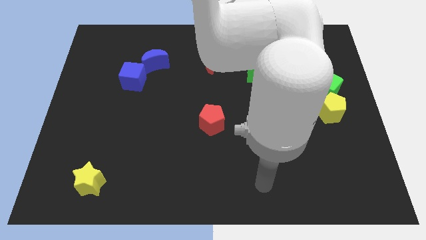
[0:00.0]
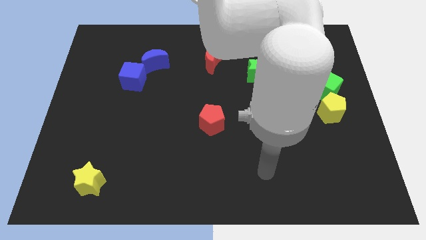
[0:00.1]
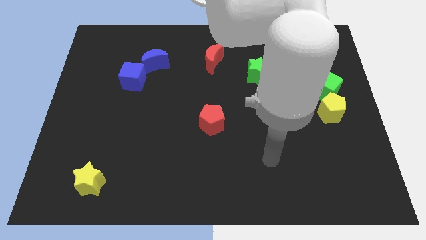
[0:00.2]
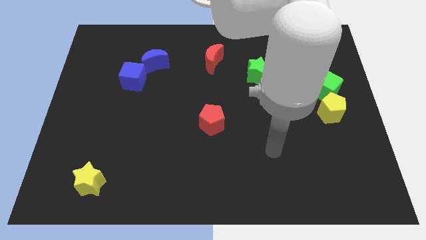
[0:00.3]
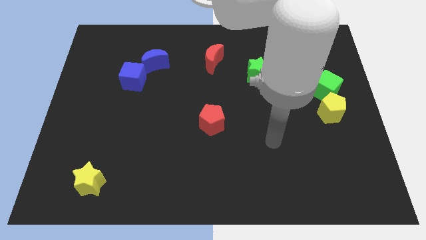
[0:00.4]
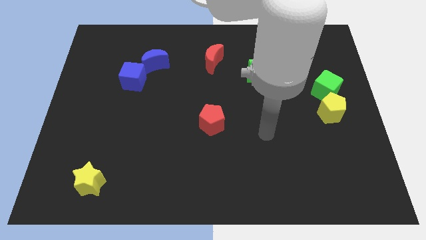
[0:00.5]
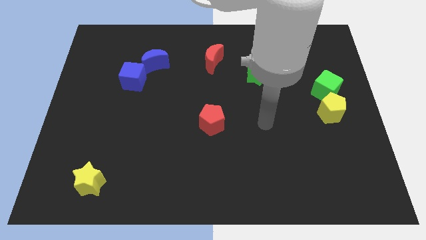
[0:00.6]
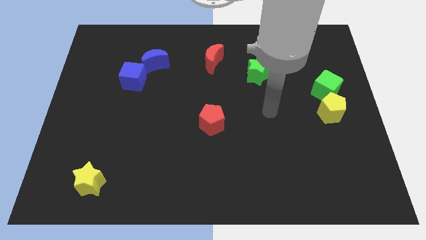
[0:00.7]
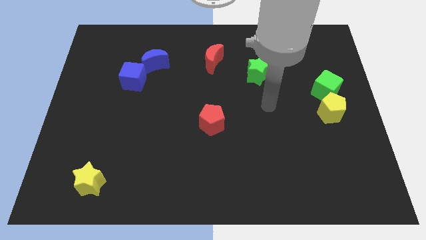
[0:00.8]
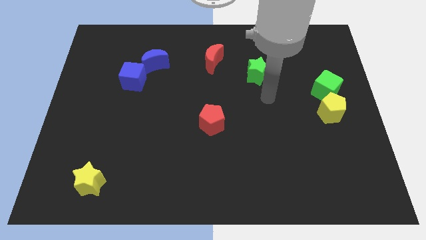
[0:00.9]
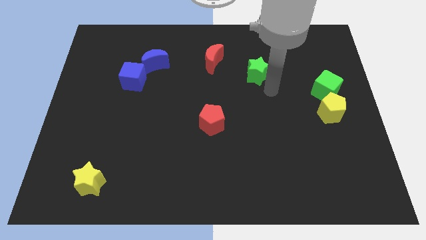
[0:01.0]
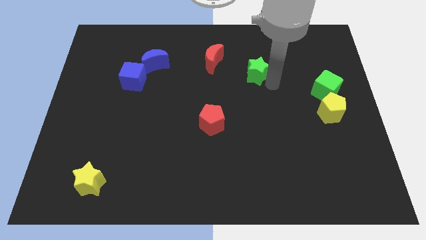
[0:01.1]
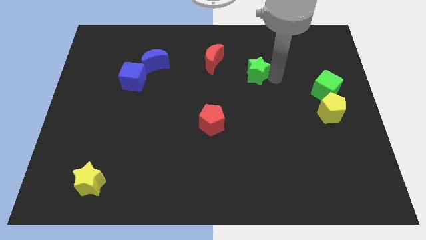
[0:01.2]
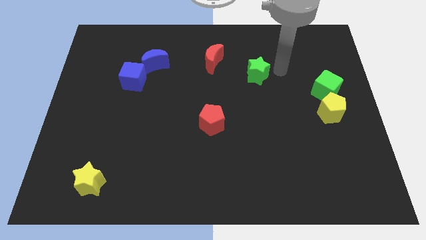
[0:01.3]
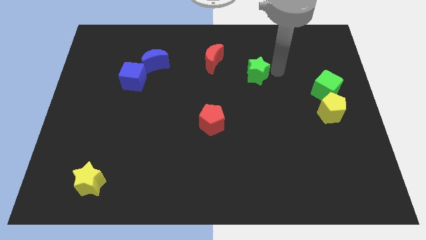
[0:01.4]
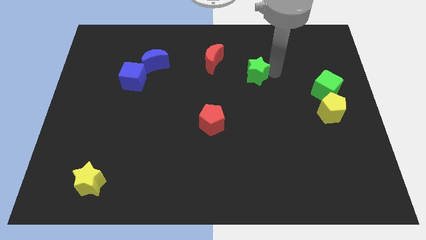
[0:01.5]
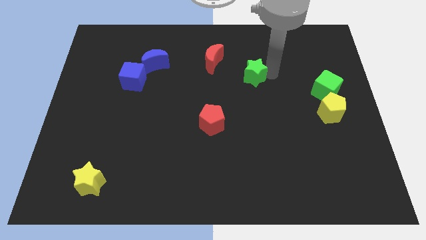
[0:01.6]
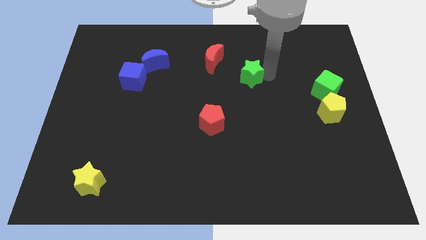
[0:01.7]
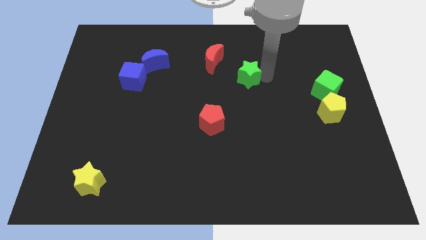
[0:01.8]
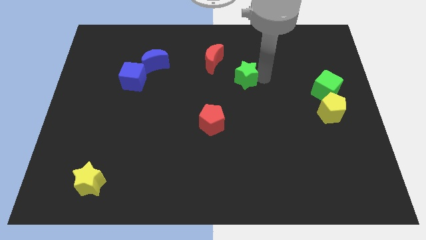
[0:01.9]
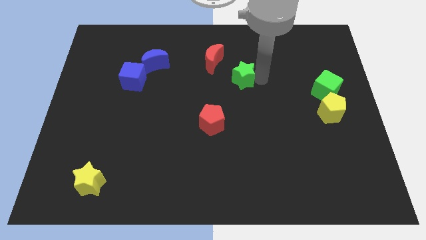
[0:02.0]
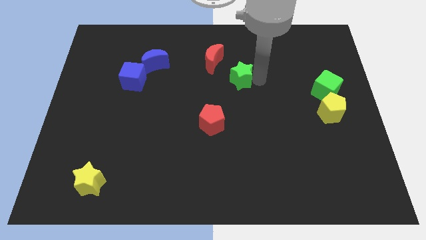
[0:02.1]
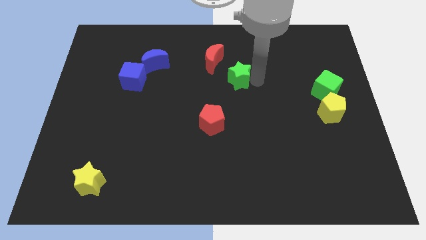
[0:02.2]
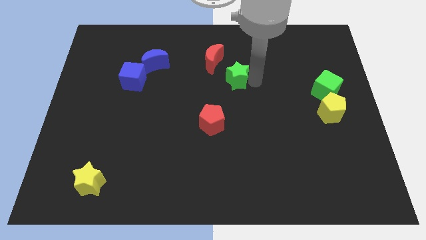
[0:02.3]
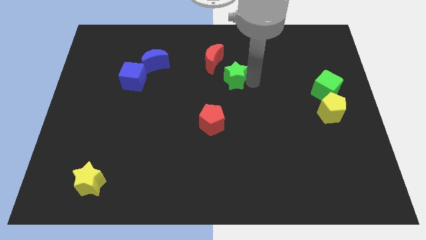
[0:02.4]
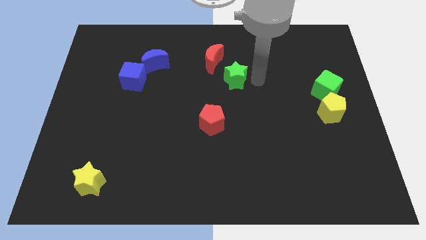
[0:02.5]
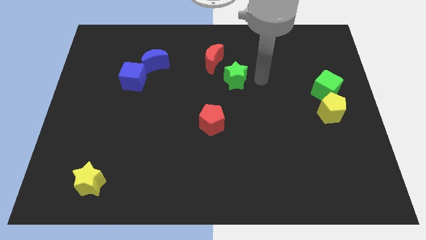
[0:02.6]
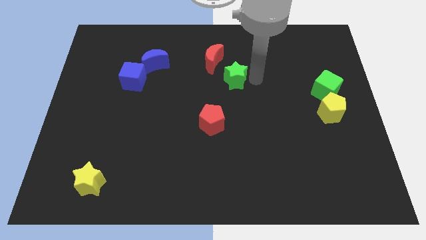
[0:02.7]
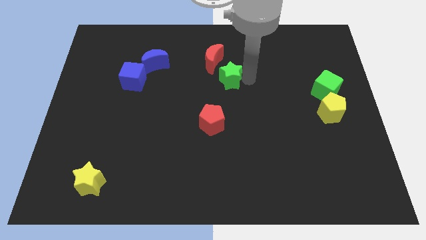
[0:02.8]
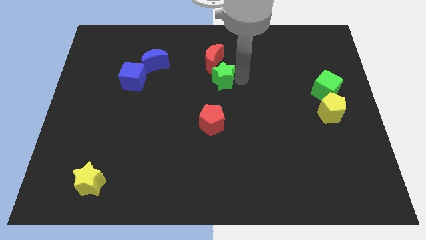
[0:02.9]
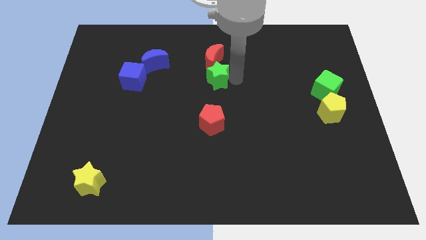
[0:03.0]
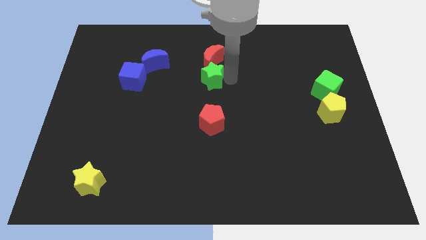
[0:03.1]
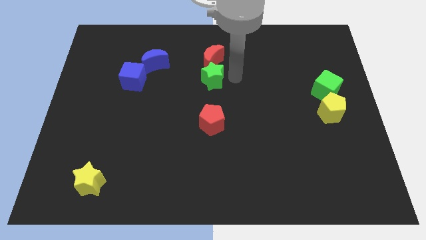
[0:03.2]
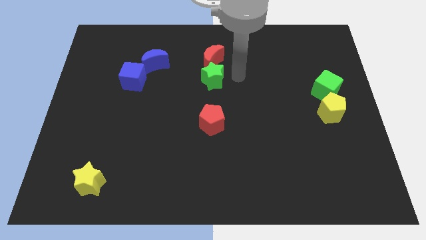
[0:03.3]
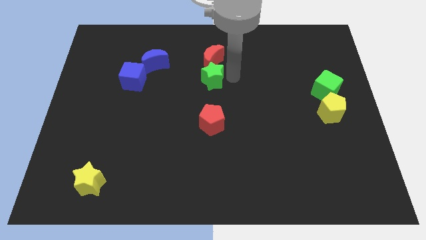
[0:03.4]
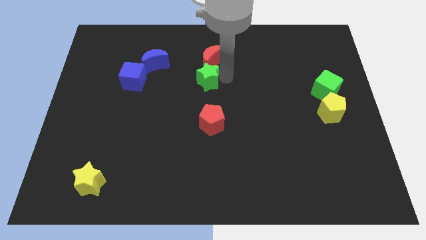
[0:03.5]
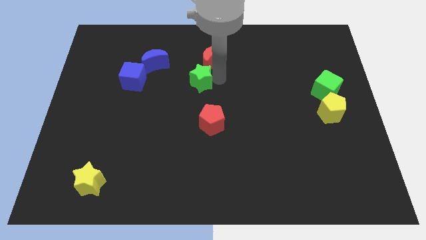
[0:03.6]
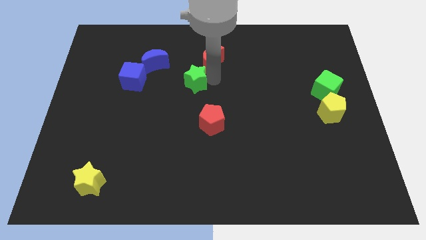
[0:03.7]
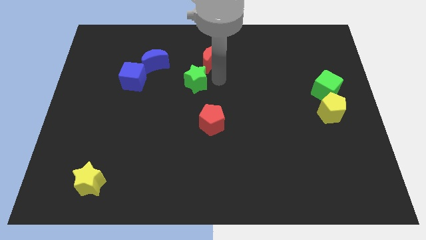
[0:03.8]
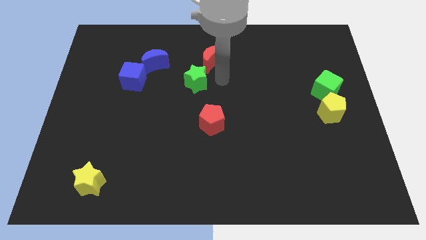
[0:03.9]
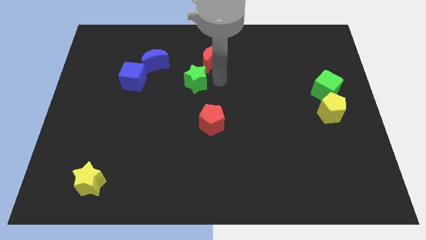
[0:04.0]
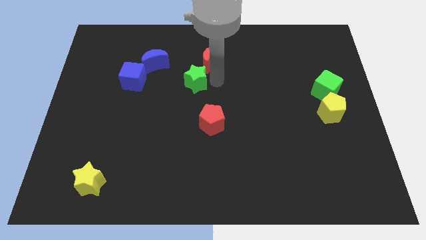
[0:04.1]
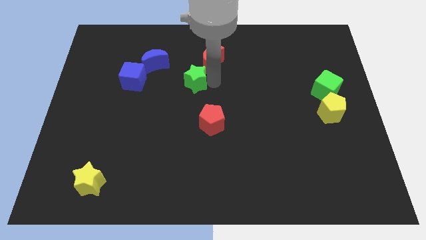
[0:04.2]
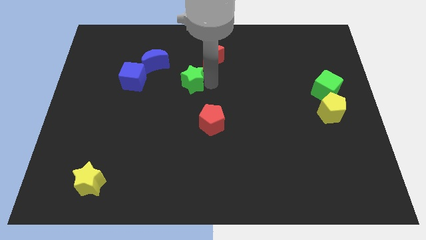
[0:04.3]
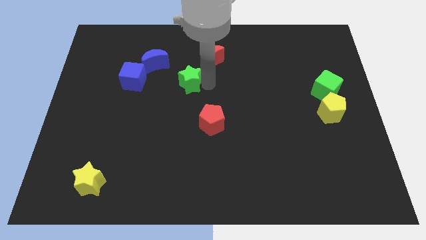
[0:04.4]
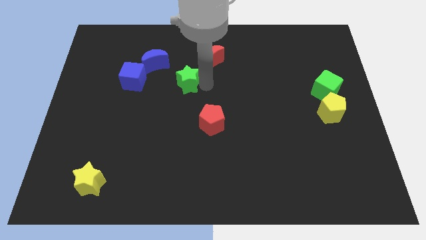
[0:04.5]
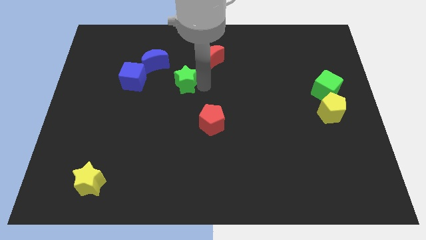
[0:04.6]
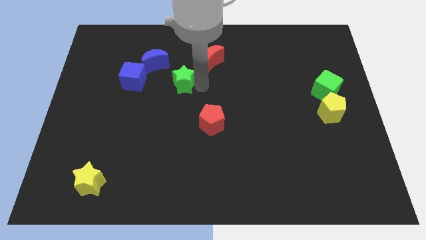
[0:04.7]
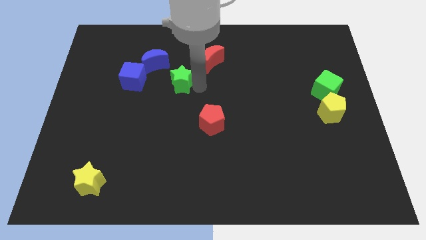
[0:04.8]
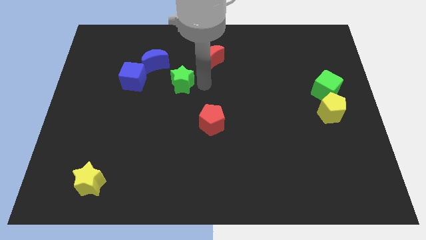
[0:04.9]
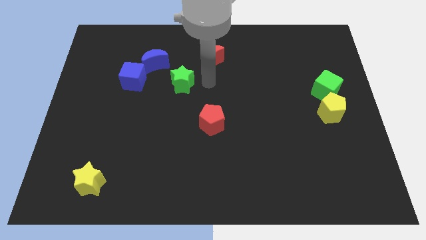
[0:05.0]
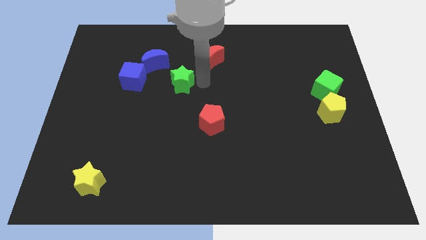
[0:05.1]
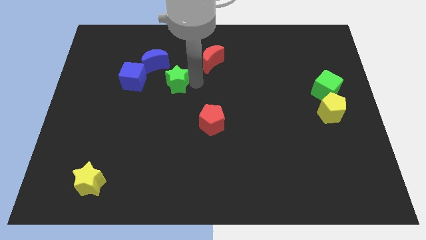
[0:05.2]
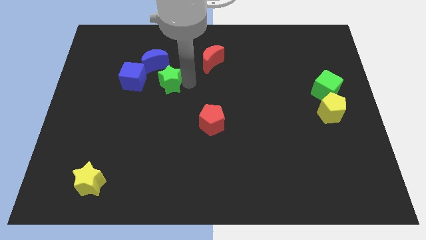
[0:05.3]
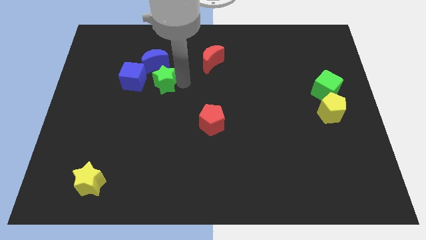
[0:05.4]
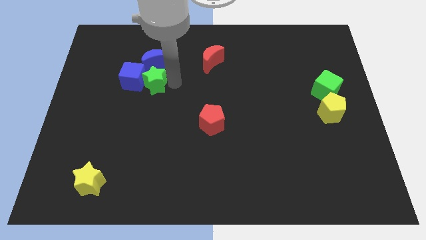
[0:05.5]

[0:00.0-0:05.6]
push the green star to the blue cube

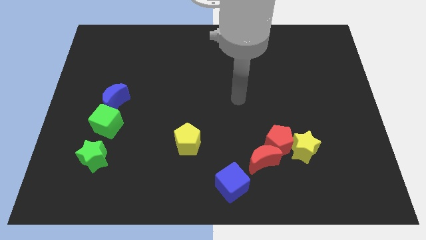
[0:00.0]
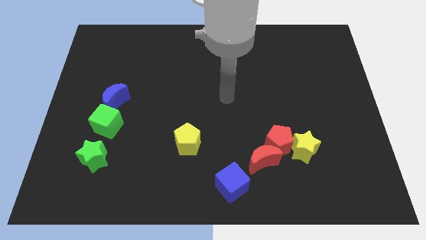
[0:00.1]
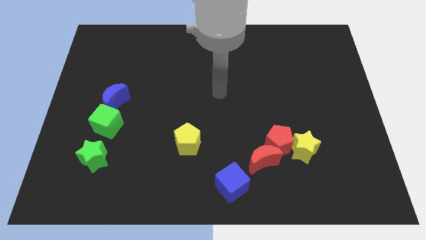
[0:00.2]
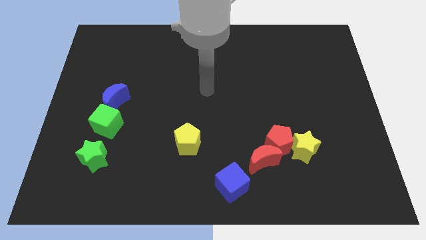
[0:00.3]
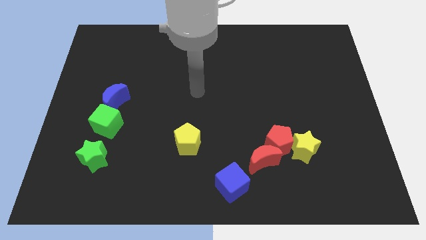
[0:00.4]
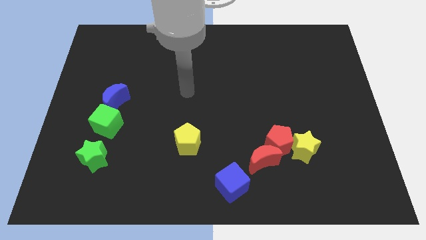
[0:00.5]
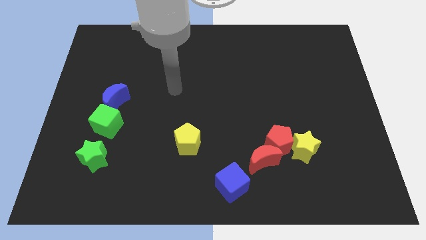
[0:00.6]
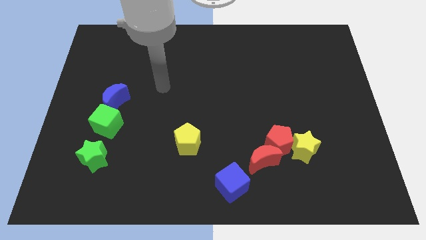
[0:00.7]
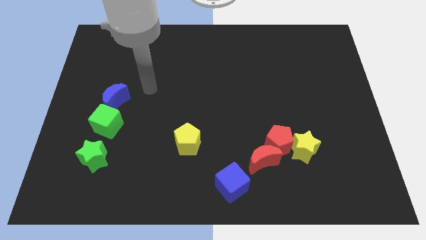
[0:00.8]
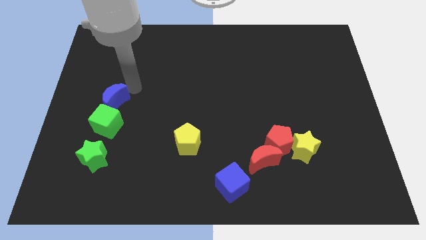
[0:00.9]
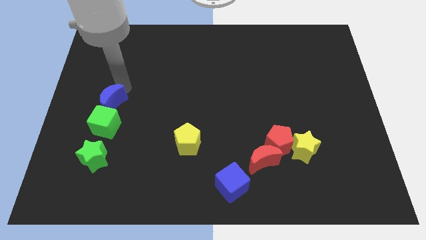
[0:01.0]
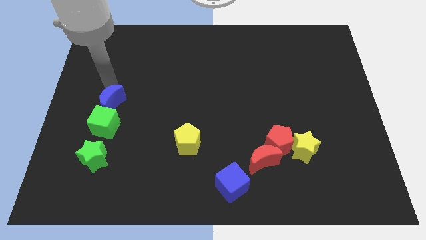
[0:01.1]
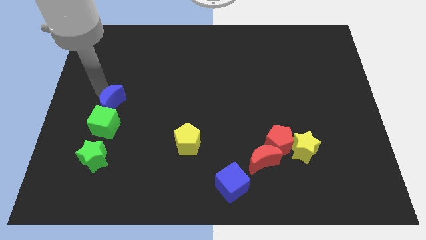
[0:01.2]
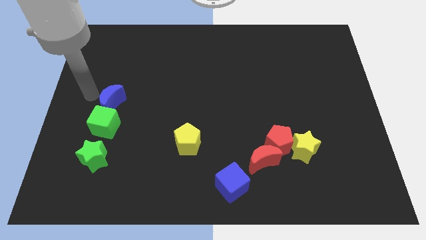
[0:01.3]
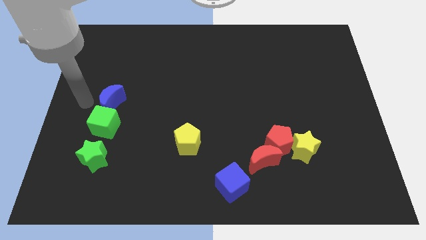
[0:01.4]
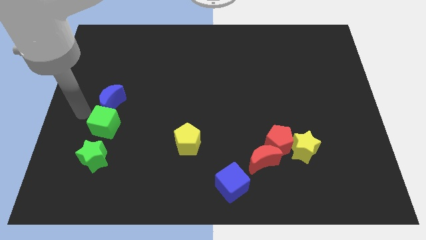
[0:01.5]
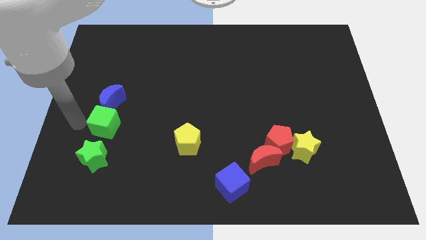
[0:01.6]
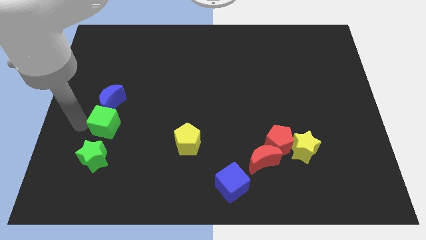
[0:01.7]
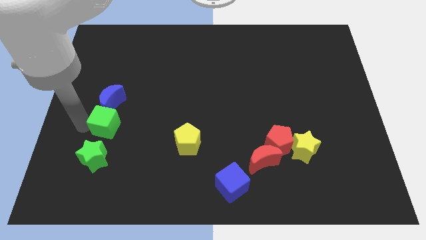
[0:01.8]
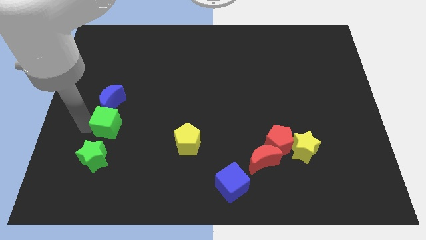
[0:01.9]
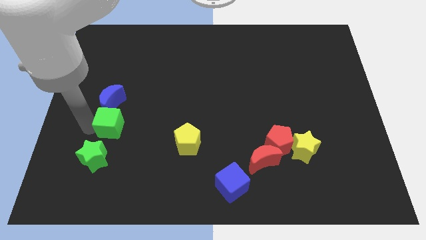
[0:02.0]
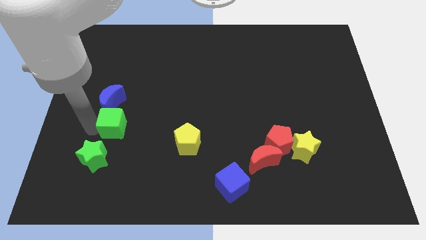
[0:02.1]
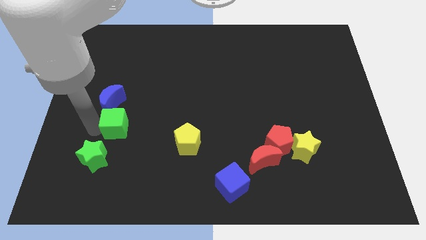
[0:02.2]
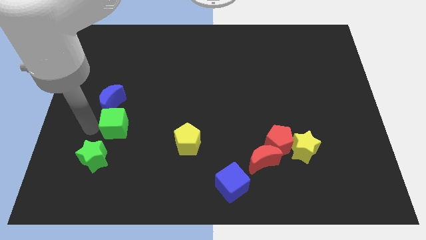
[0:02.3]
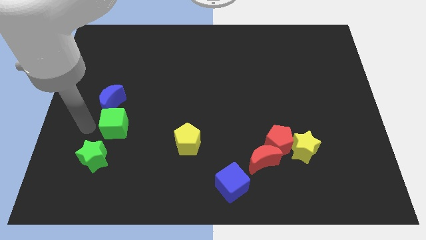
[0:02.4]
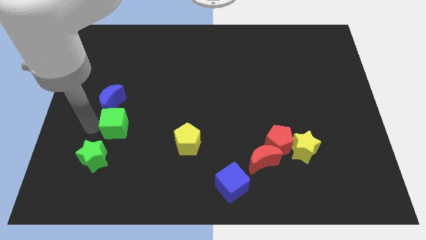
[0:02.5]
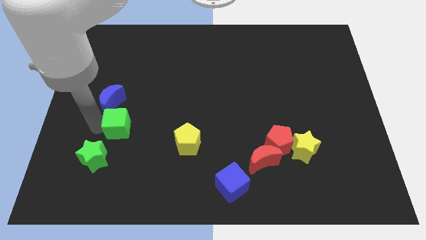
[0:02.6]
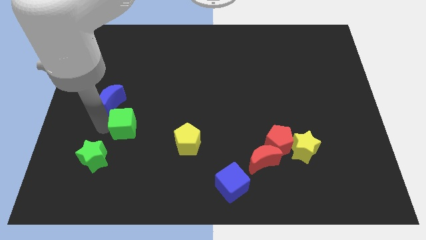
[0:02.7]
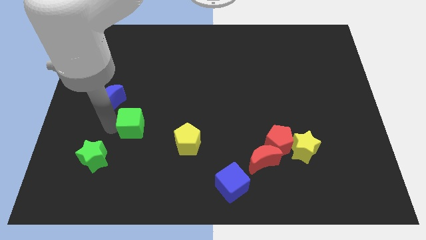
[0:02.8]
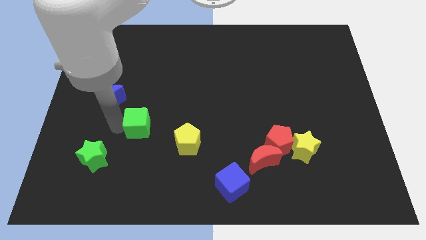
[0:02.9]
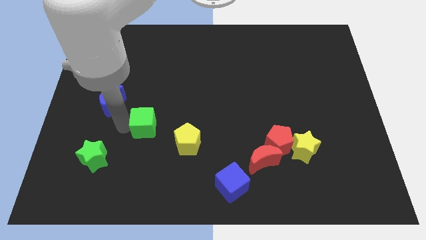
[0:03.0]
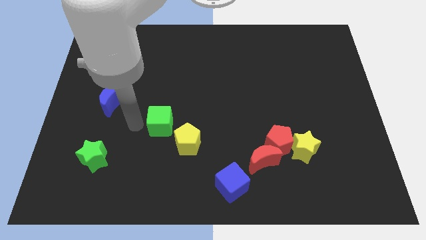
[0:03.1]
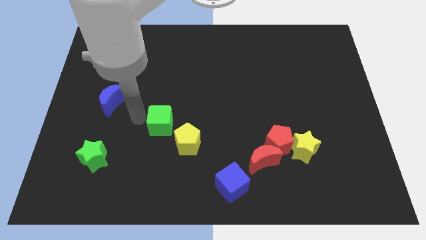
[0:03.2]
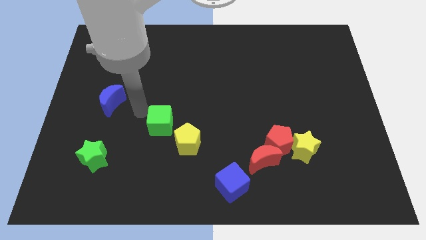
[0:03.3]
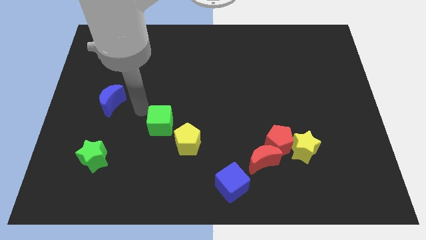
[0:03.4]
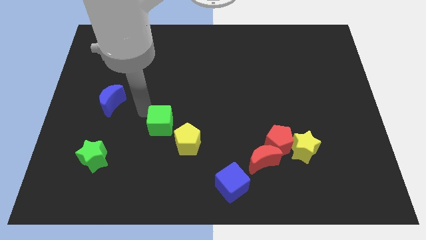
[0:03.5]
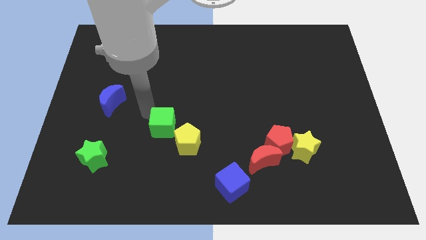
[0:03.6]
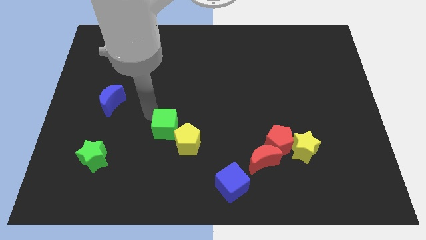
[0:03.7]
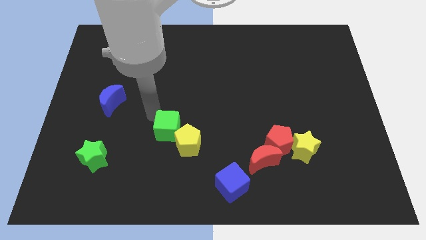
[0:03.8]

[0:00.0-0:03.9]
slide the green cube towards the yellow pentagon
